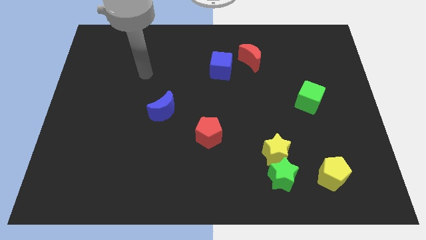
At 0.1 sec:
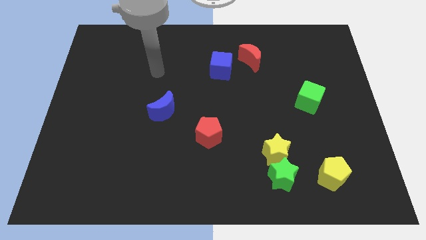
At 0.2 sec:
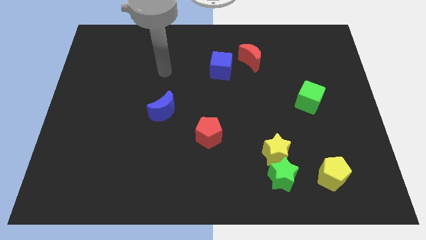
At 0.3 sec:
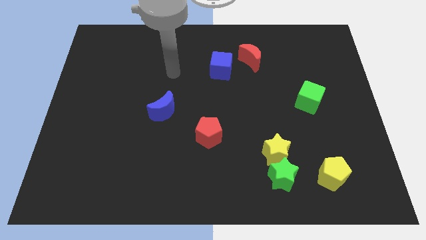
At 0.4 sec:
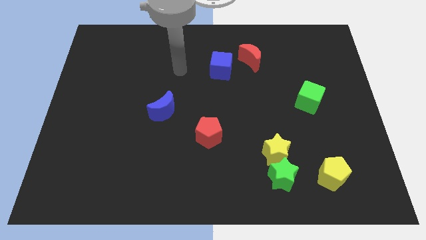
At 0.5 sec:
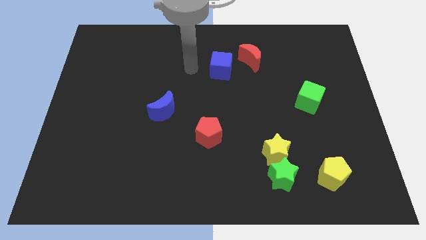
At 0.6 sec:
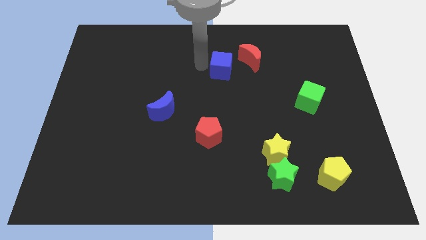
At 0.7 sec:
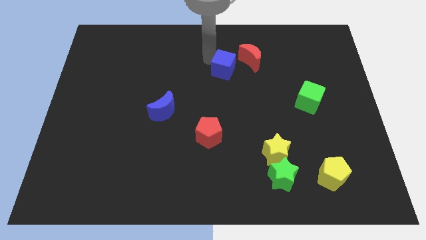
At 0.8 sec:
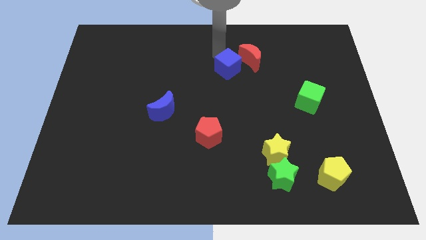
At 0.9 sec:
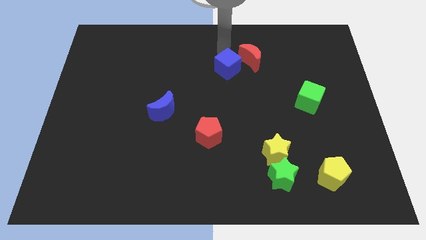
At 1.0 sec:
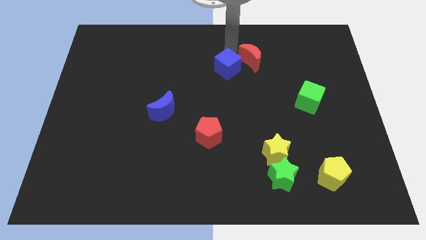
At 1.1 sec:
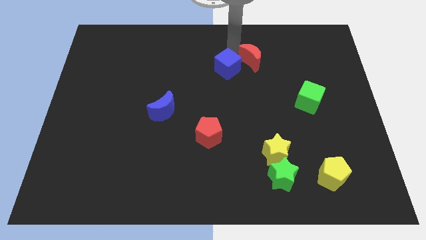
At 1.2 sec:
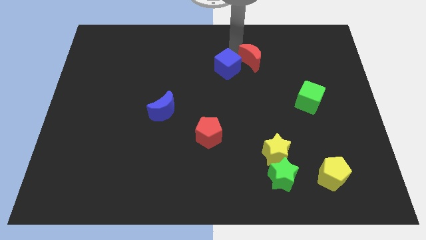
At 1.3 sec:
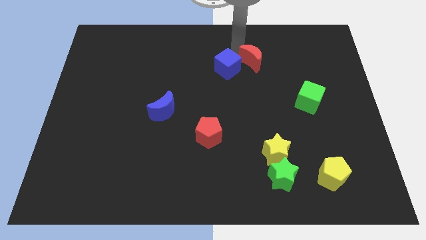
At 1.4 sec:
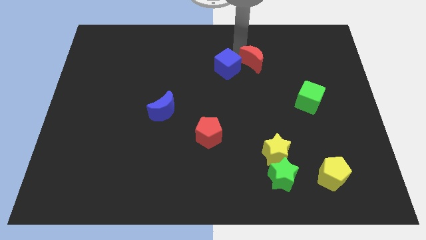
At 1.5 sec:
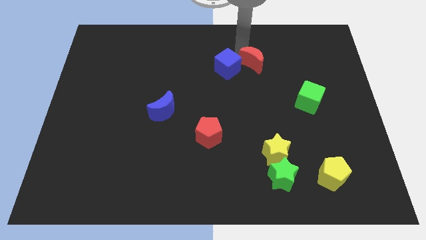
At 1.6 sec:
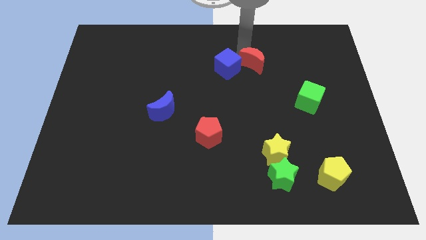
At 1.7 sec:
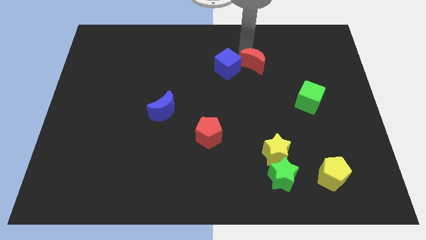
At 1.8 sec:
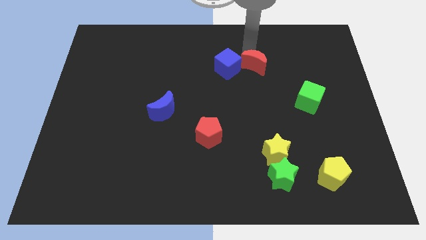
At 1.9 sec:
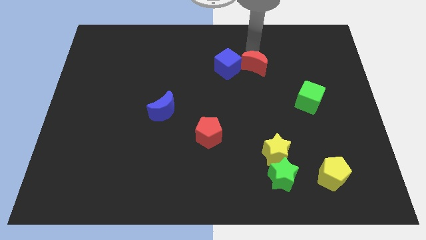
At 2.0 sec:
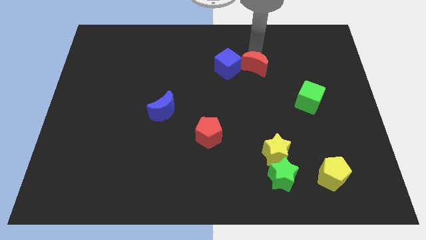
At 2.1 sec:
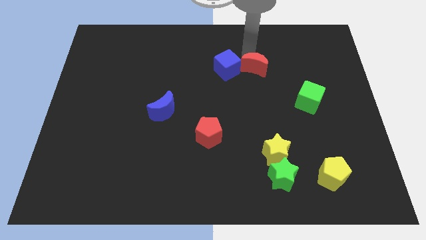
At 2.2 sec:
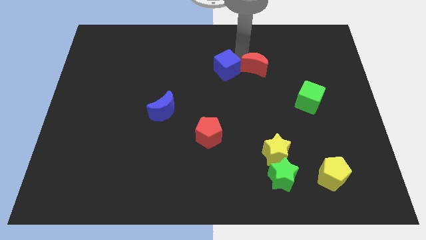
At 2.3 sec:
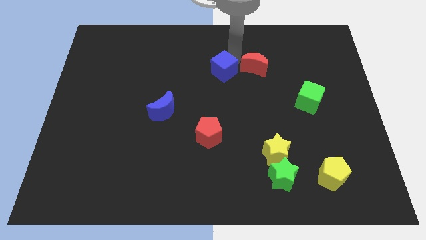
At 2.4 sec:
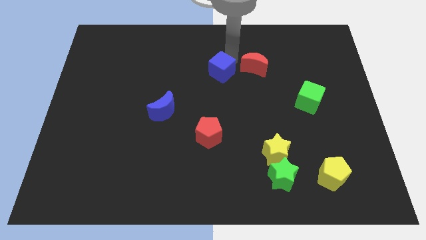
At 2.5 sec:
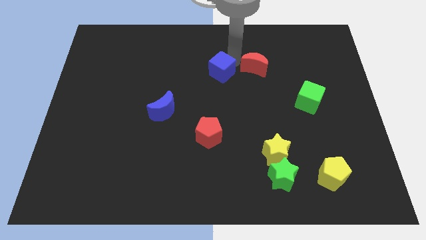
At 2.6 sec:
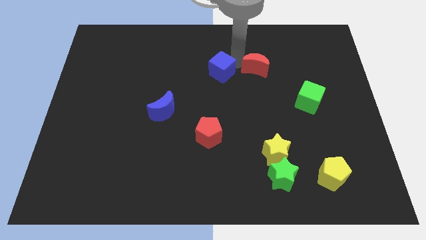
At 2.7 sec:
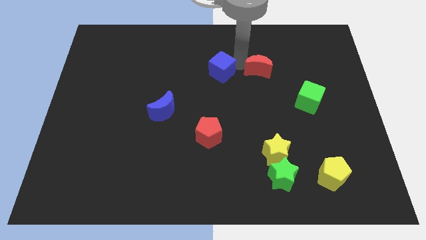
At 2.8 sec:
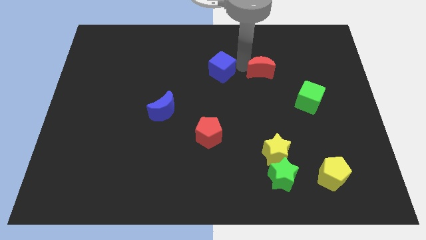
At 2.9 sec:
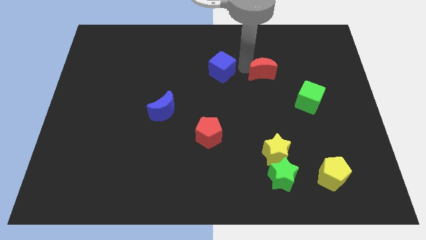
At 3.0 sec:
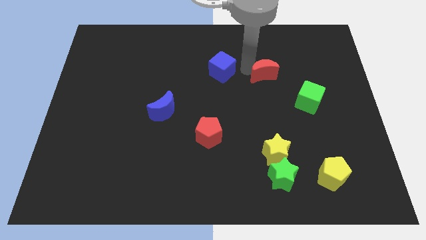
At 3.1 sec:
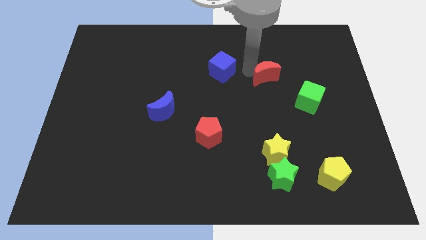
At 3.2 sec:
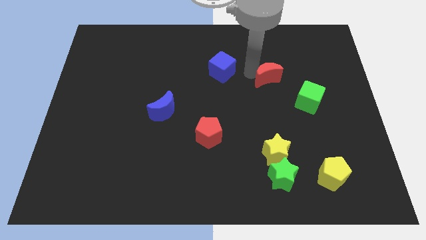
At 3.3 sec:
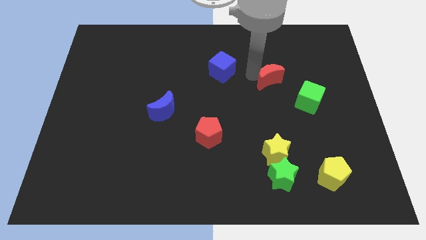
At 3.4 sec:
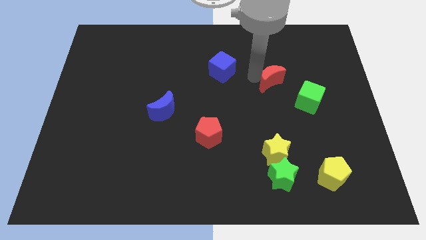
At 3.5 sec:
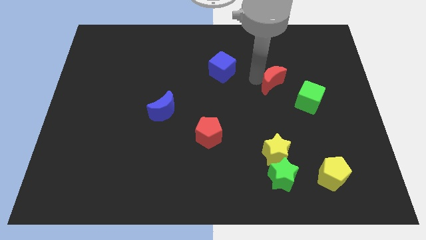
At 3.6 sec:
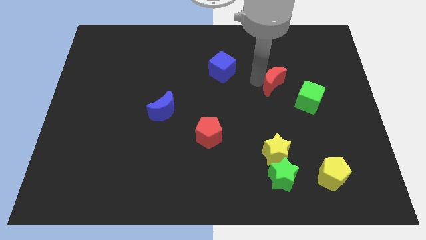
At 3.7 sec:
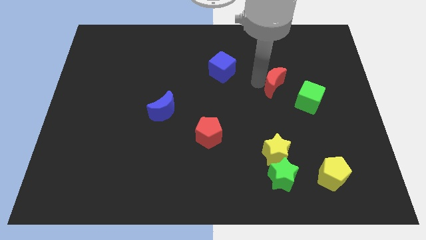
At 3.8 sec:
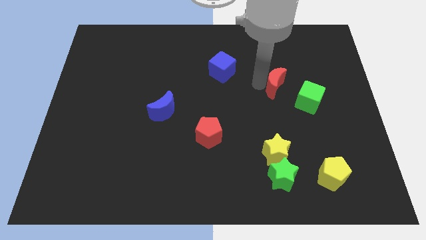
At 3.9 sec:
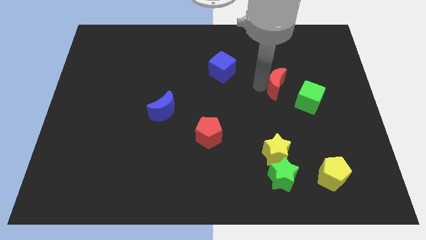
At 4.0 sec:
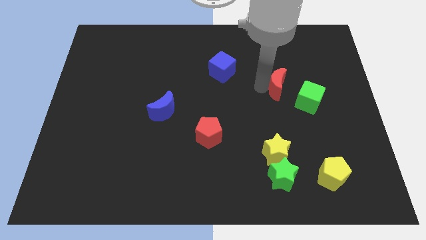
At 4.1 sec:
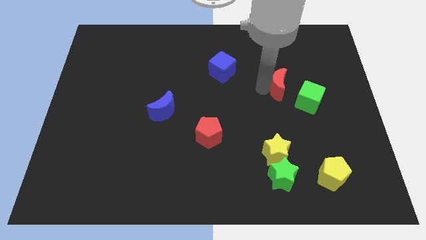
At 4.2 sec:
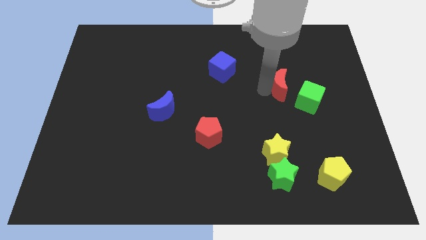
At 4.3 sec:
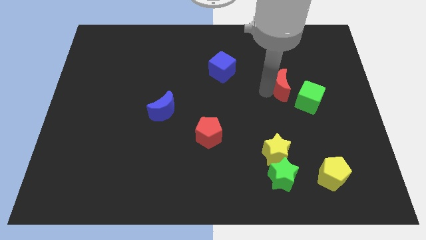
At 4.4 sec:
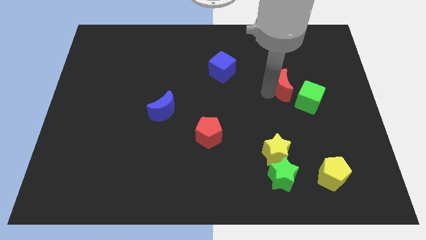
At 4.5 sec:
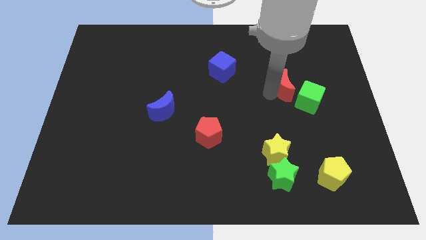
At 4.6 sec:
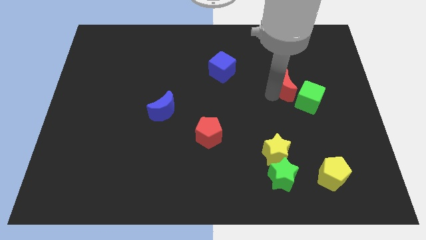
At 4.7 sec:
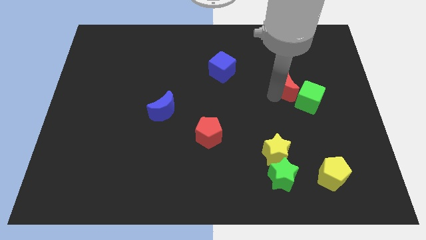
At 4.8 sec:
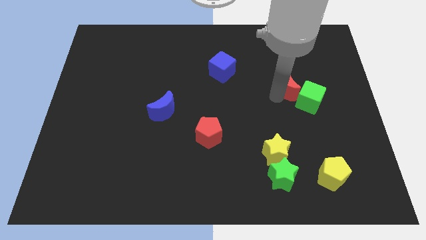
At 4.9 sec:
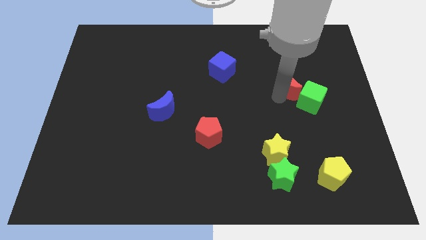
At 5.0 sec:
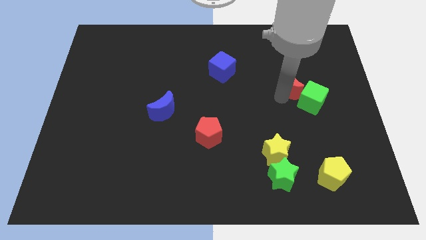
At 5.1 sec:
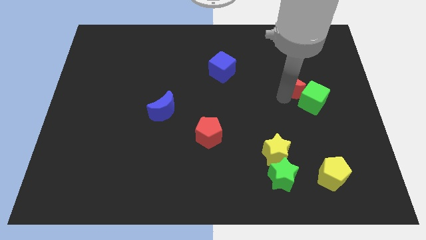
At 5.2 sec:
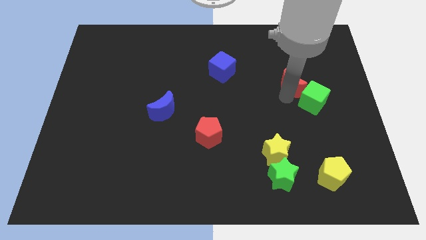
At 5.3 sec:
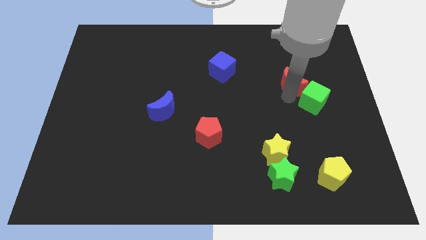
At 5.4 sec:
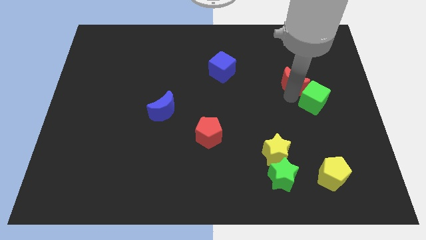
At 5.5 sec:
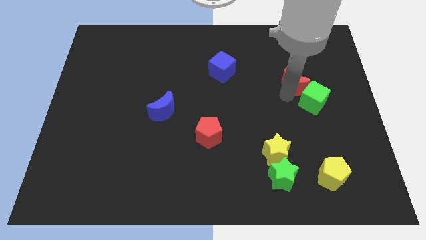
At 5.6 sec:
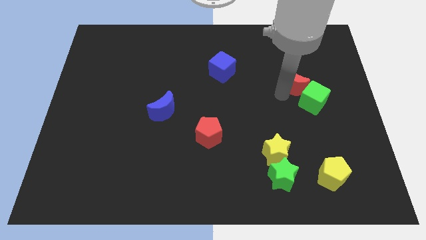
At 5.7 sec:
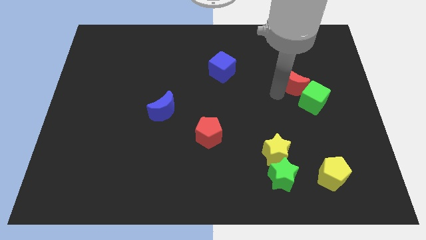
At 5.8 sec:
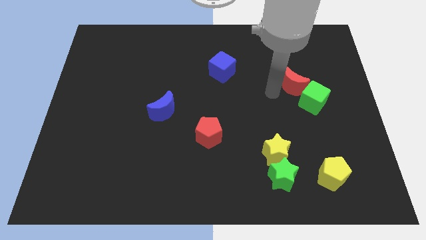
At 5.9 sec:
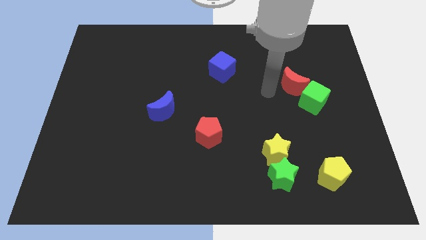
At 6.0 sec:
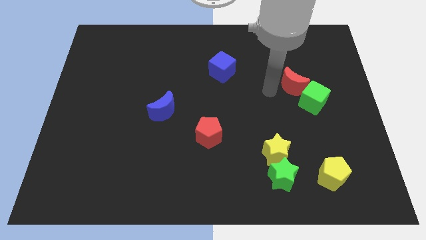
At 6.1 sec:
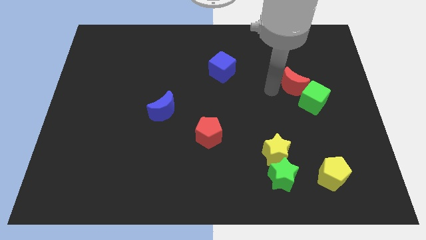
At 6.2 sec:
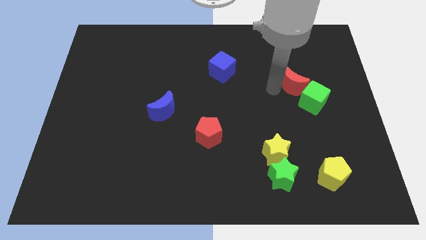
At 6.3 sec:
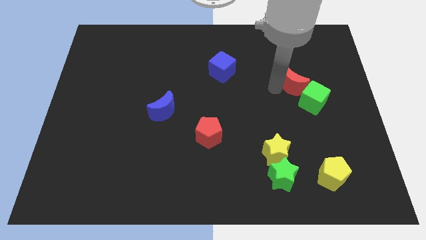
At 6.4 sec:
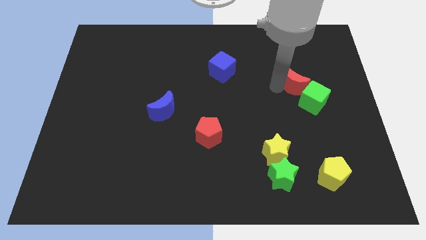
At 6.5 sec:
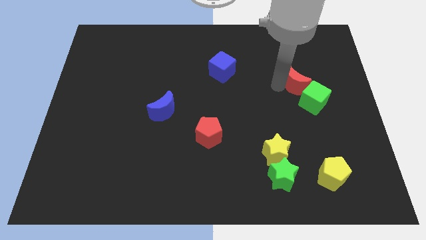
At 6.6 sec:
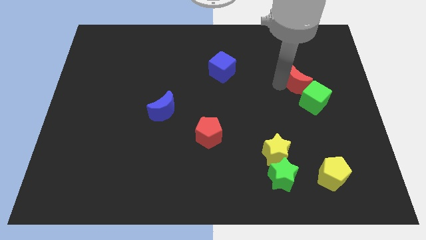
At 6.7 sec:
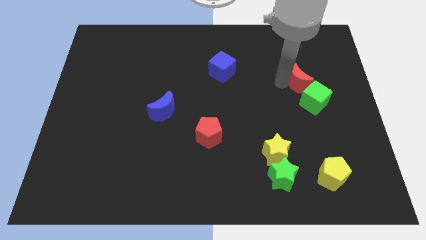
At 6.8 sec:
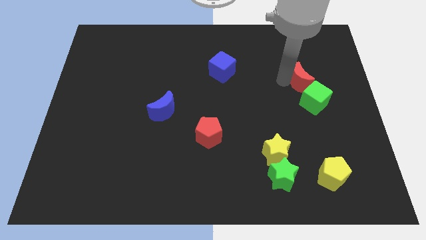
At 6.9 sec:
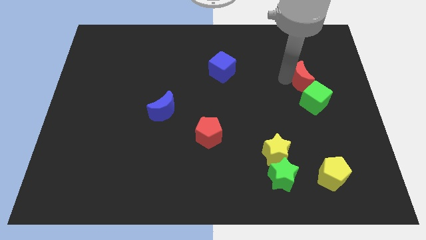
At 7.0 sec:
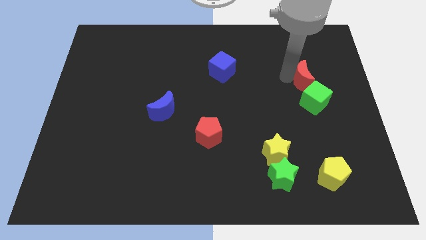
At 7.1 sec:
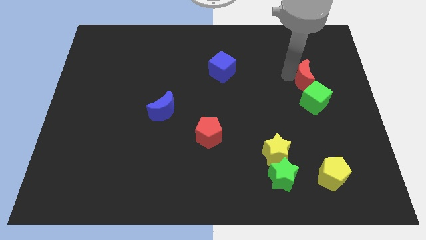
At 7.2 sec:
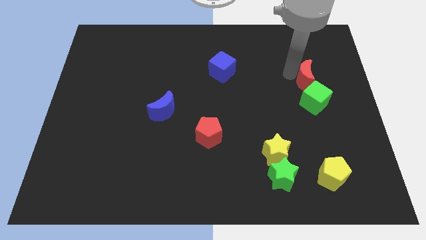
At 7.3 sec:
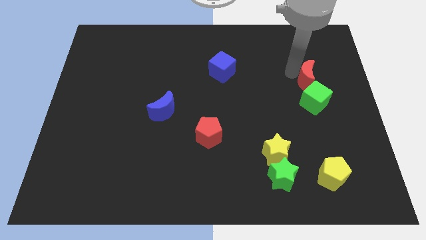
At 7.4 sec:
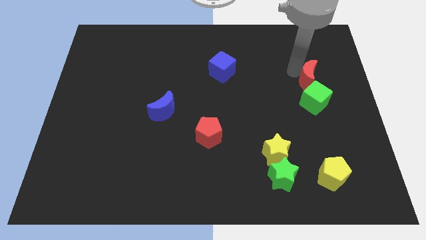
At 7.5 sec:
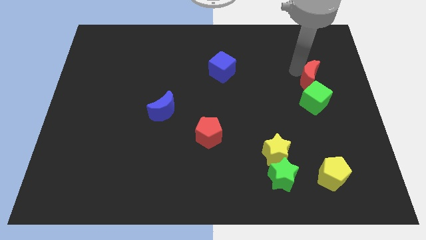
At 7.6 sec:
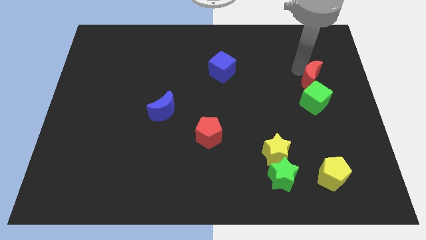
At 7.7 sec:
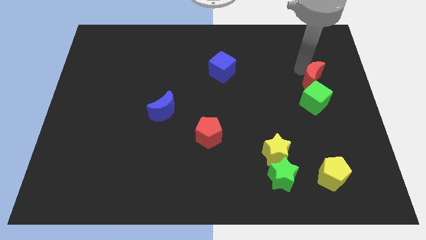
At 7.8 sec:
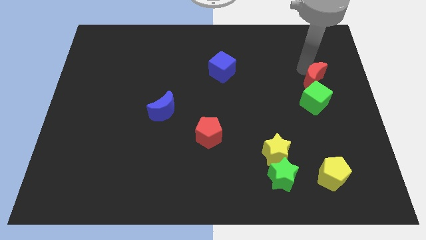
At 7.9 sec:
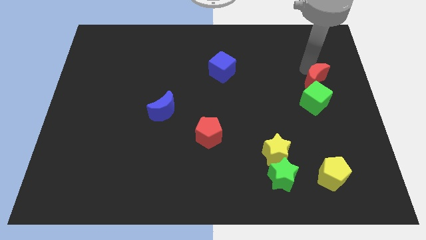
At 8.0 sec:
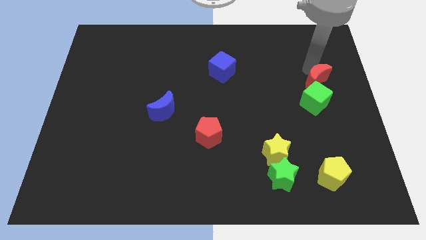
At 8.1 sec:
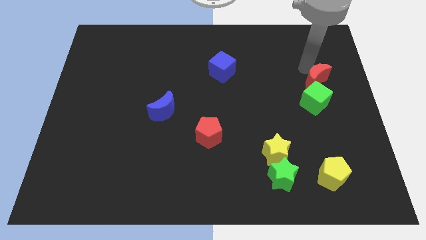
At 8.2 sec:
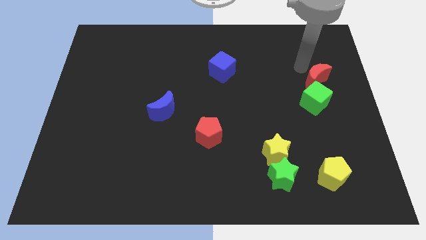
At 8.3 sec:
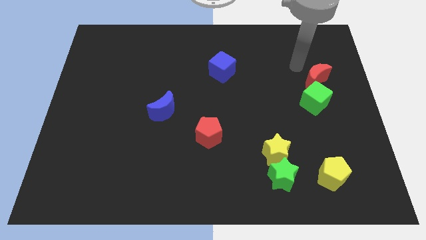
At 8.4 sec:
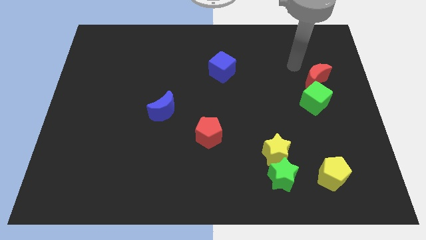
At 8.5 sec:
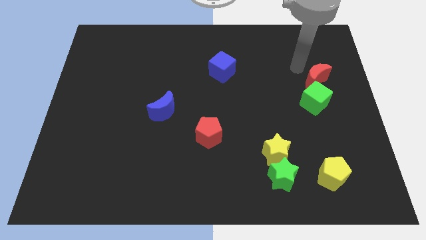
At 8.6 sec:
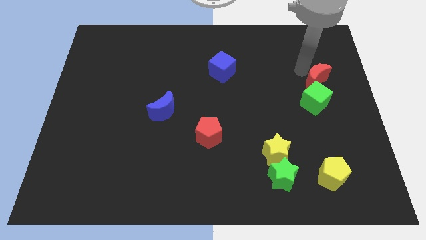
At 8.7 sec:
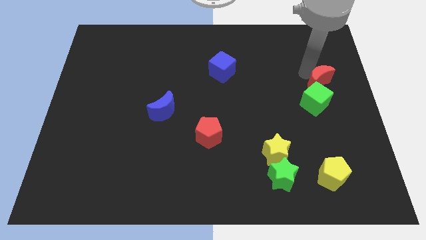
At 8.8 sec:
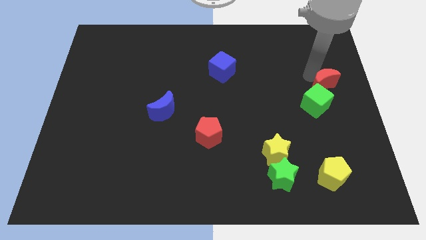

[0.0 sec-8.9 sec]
move the red moon to the center right
